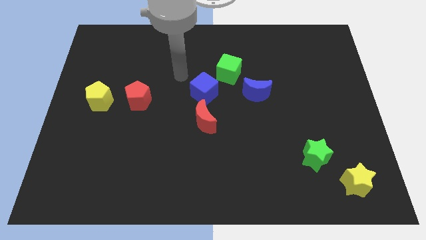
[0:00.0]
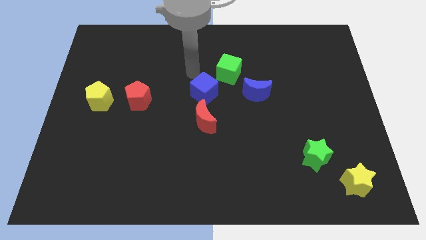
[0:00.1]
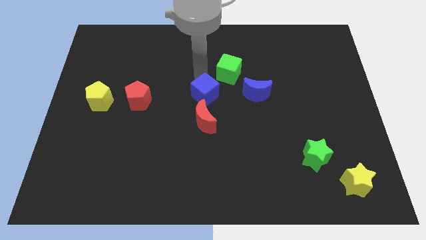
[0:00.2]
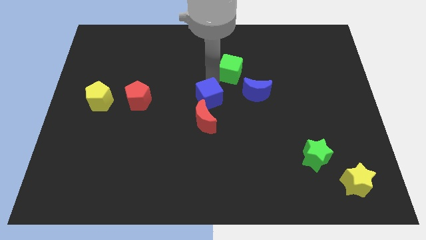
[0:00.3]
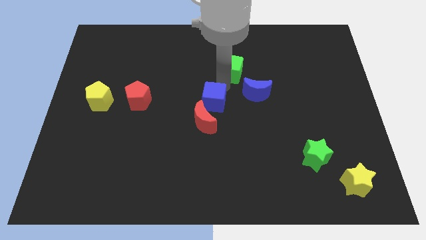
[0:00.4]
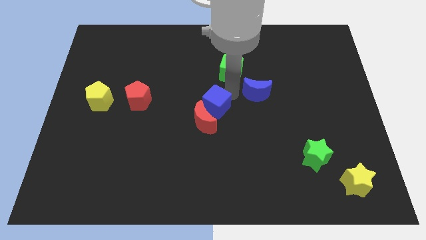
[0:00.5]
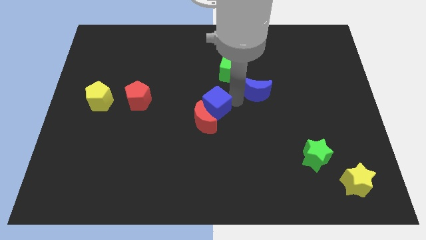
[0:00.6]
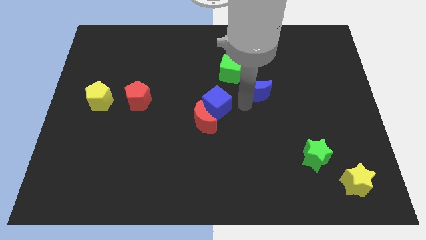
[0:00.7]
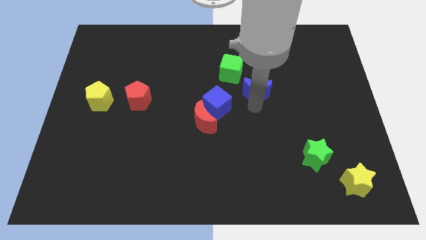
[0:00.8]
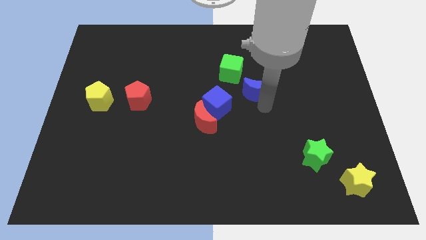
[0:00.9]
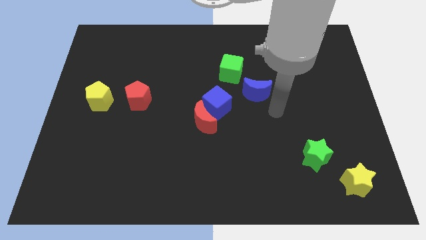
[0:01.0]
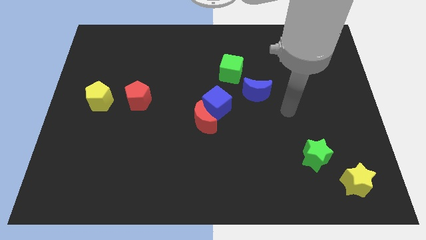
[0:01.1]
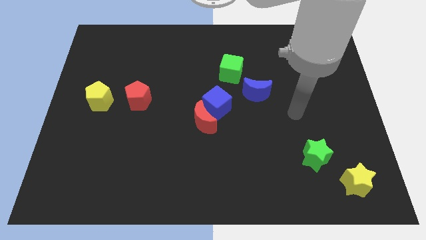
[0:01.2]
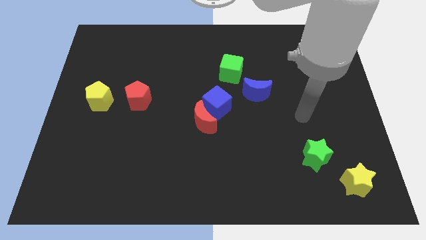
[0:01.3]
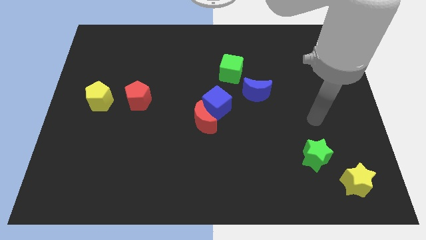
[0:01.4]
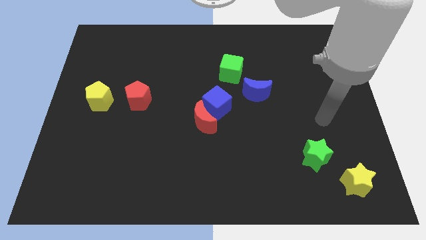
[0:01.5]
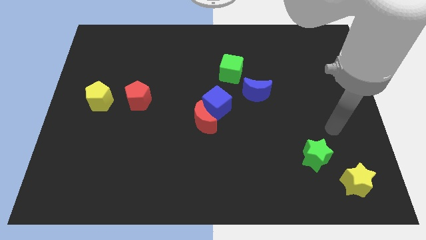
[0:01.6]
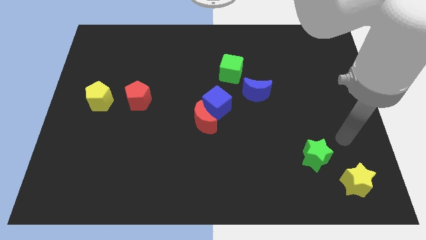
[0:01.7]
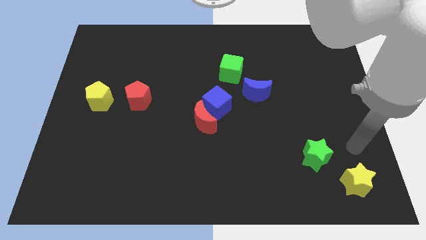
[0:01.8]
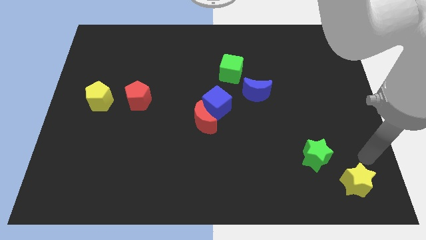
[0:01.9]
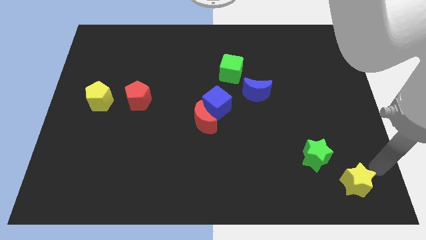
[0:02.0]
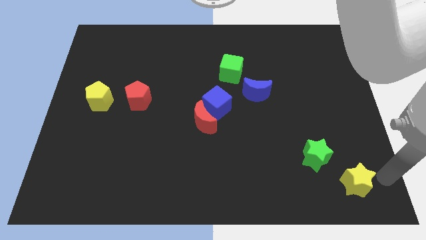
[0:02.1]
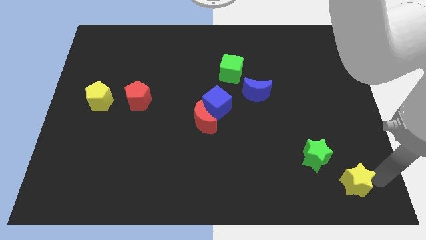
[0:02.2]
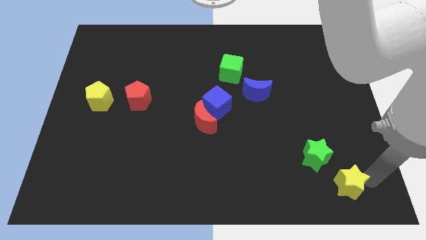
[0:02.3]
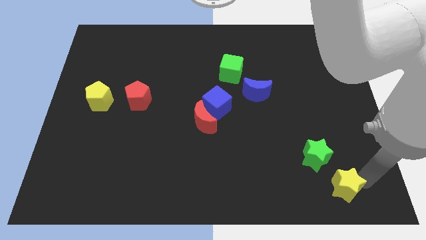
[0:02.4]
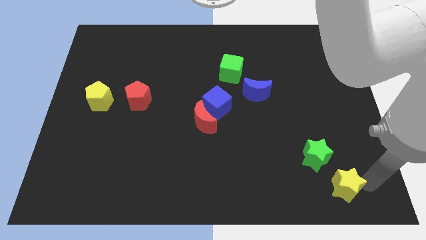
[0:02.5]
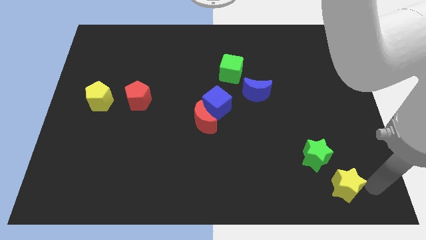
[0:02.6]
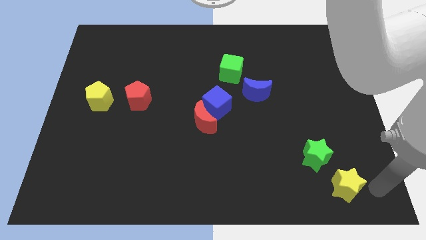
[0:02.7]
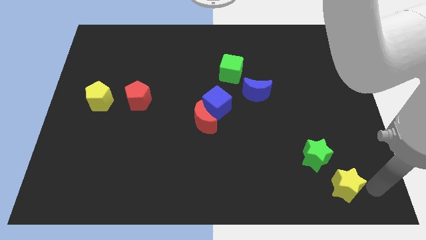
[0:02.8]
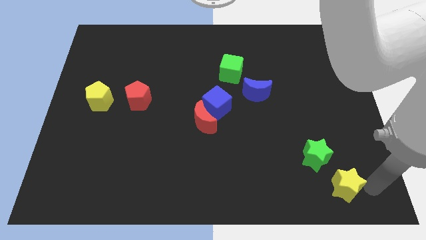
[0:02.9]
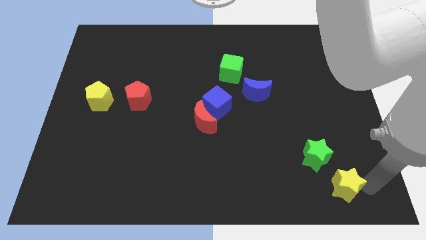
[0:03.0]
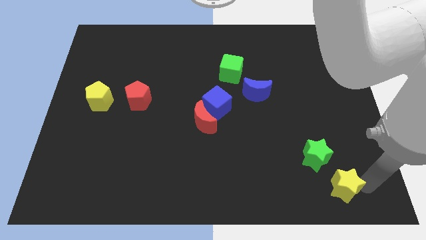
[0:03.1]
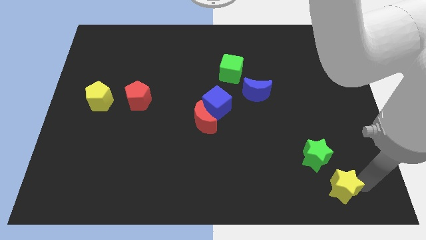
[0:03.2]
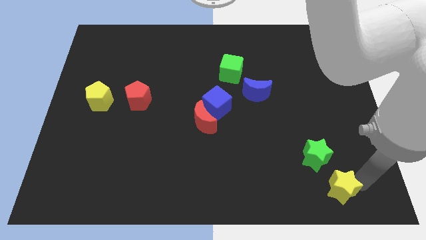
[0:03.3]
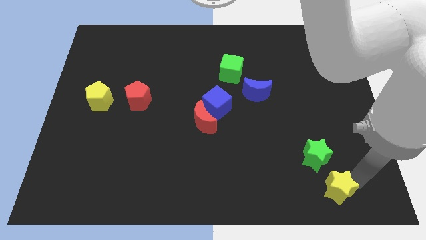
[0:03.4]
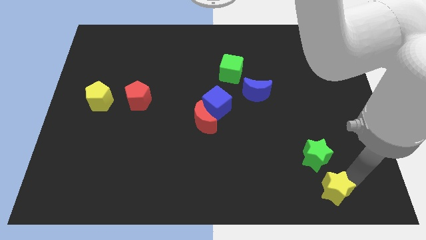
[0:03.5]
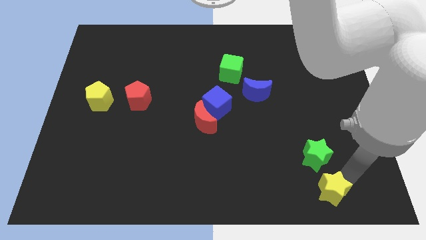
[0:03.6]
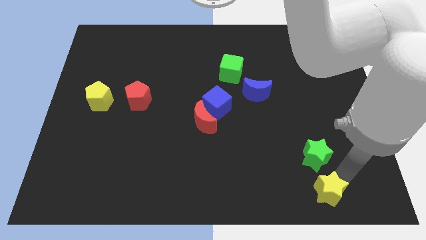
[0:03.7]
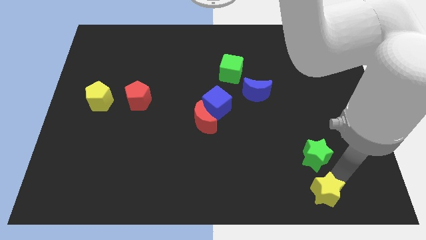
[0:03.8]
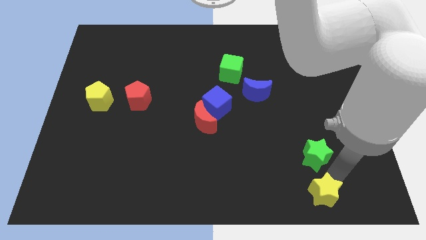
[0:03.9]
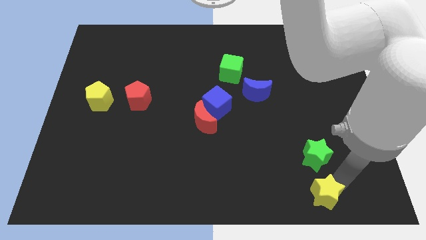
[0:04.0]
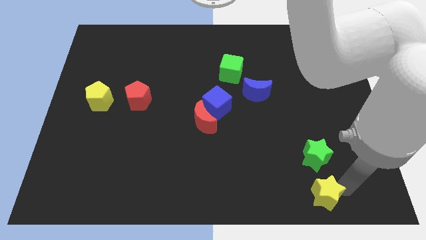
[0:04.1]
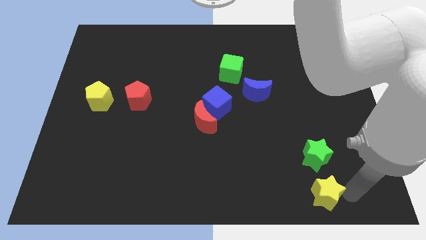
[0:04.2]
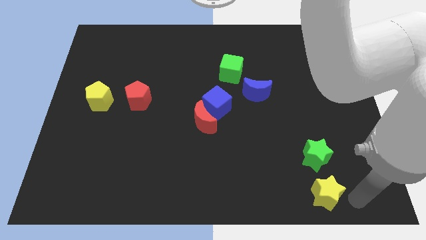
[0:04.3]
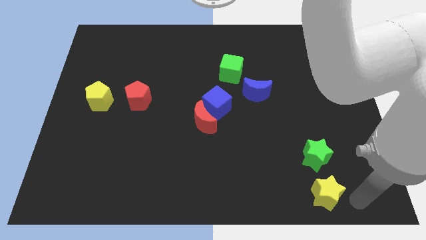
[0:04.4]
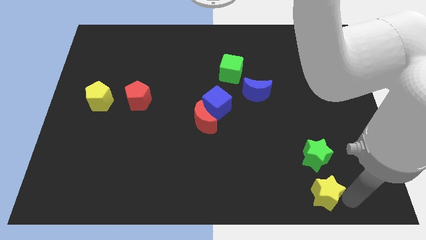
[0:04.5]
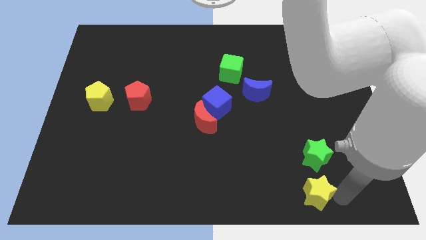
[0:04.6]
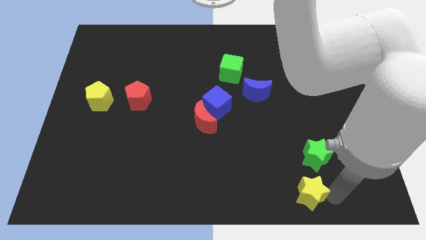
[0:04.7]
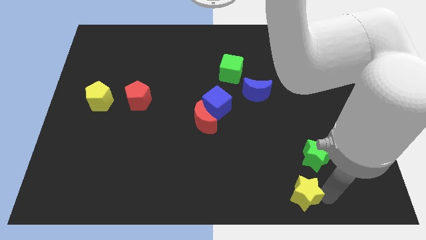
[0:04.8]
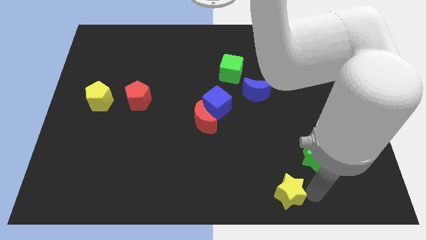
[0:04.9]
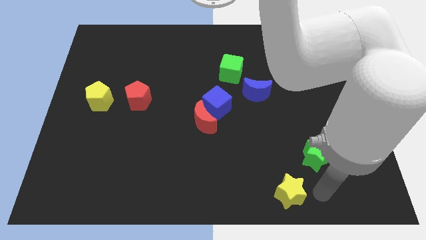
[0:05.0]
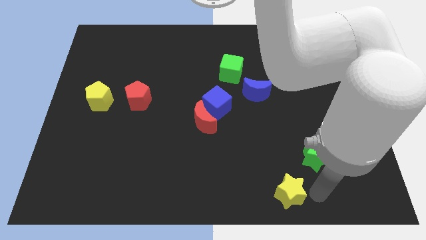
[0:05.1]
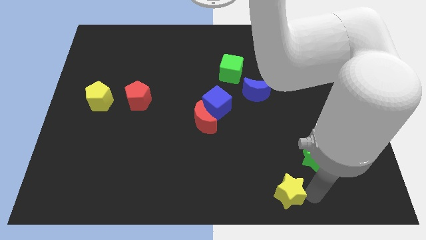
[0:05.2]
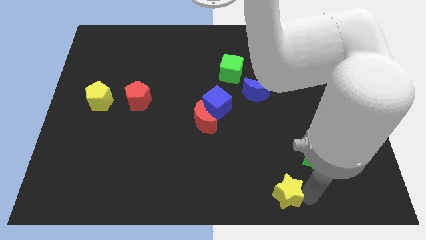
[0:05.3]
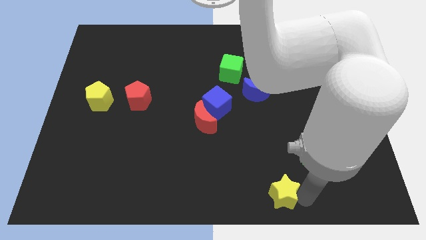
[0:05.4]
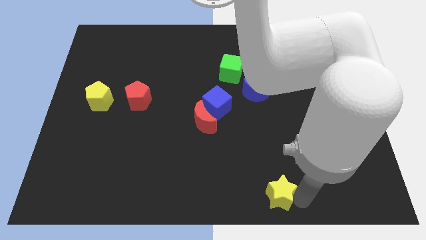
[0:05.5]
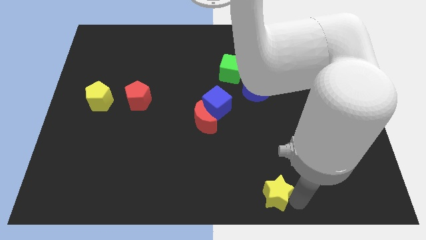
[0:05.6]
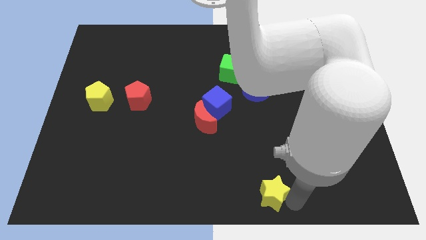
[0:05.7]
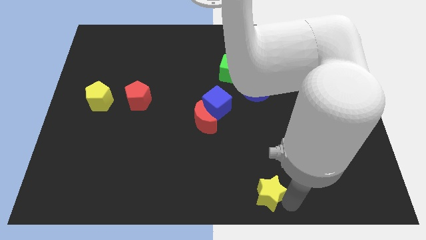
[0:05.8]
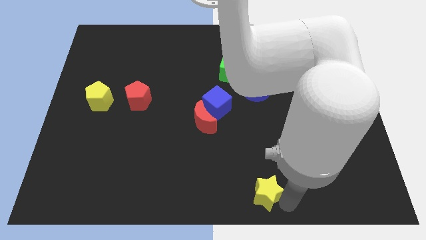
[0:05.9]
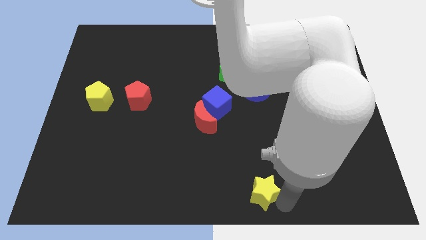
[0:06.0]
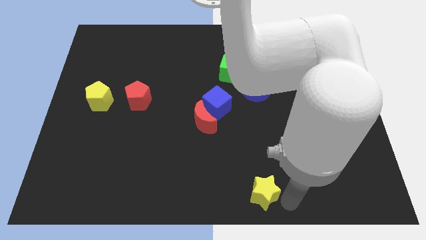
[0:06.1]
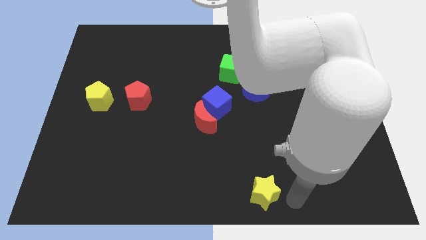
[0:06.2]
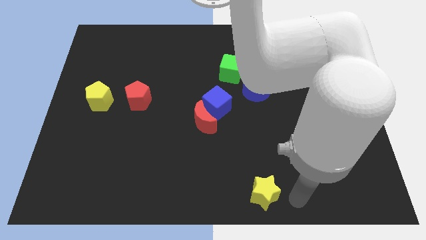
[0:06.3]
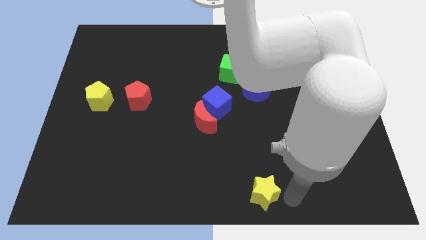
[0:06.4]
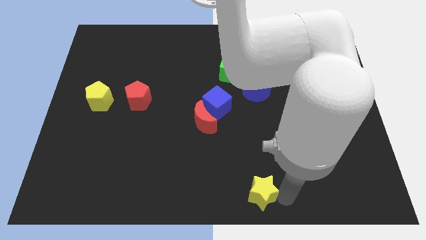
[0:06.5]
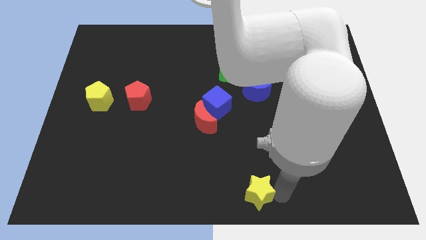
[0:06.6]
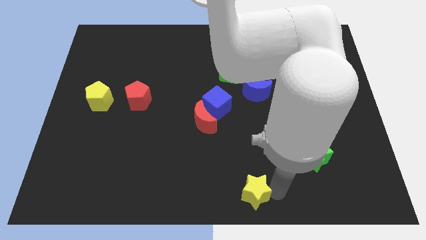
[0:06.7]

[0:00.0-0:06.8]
move the yellow star left

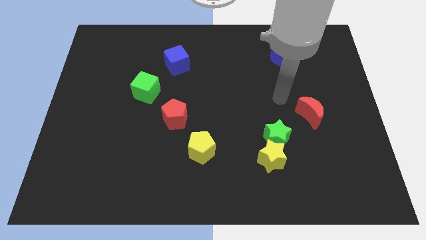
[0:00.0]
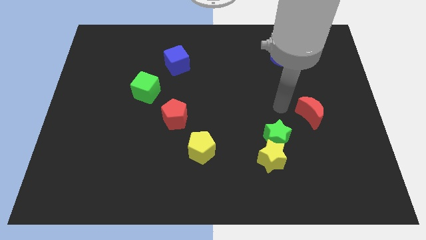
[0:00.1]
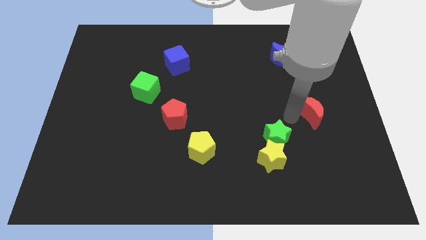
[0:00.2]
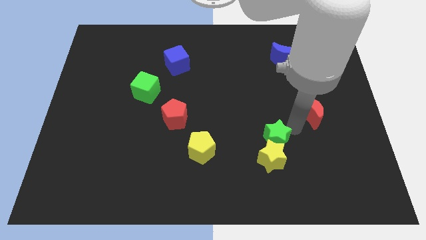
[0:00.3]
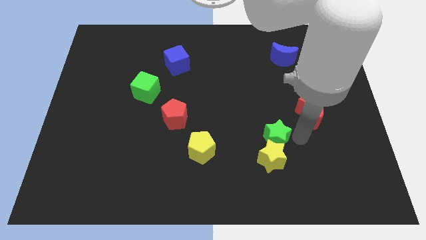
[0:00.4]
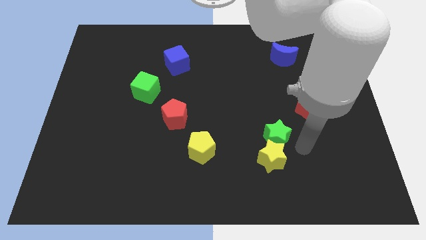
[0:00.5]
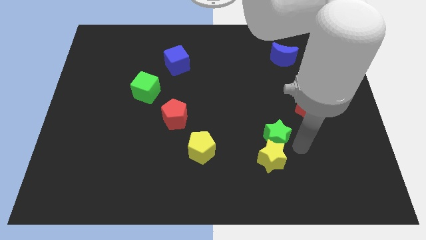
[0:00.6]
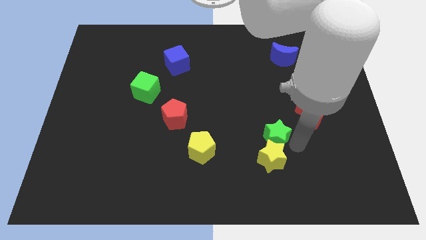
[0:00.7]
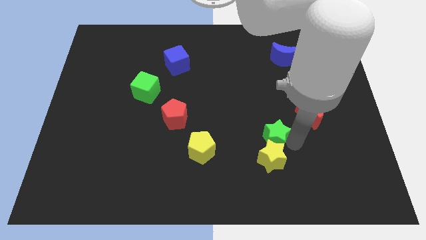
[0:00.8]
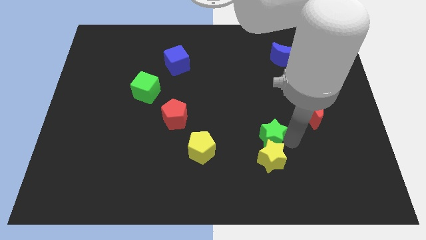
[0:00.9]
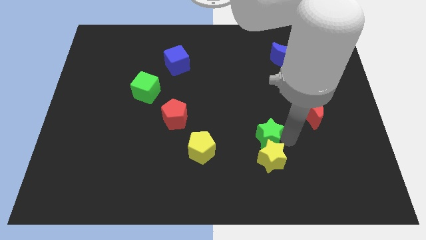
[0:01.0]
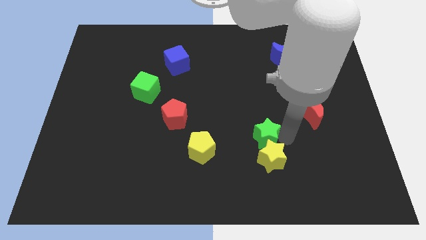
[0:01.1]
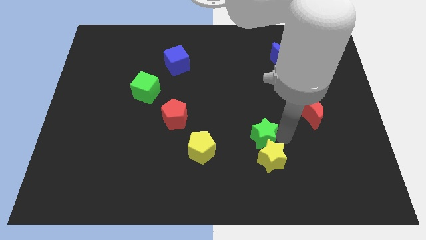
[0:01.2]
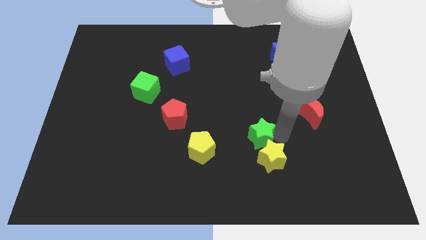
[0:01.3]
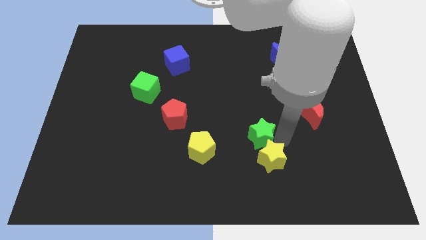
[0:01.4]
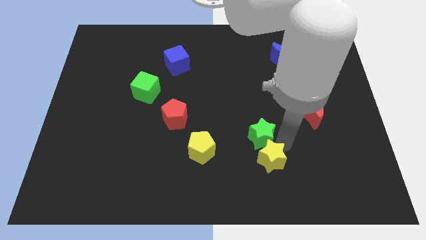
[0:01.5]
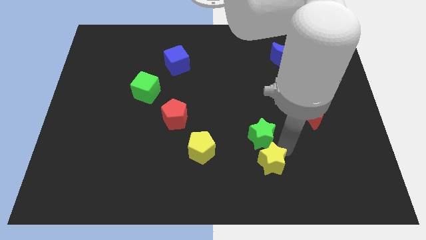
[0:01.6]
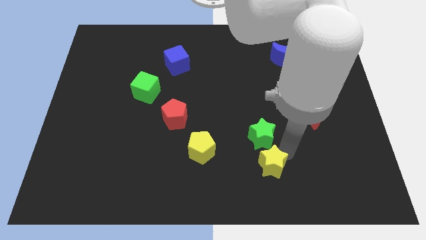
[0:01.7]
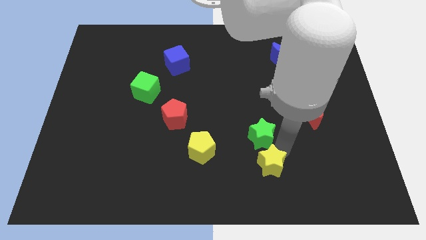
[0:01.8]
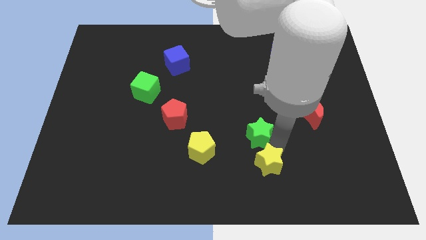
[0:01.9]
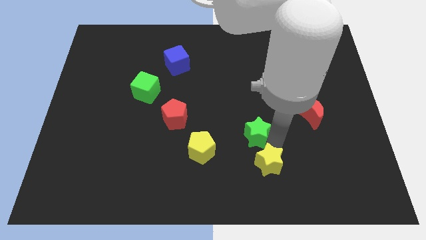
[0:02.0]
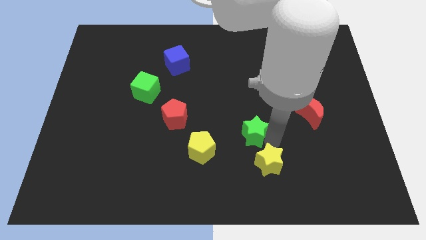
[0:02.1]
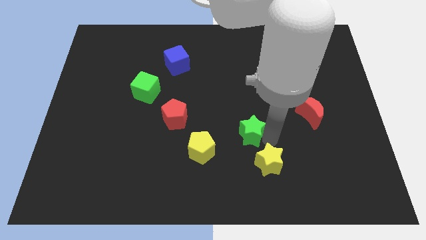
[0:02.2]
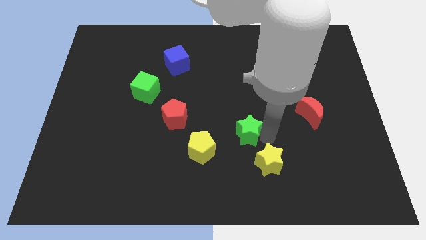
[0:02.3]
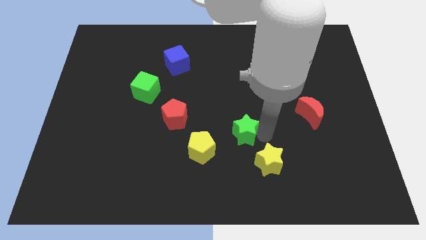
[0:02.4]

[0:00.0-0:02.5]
slightly move the green star left
